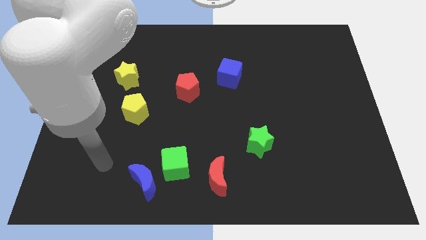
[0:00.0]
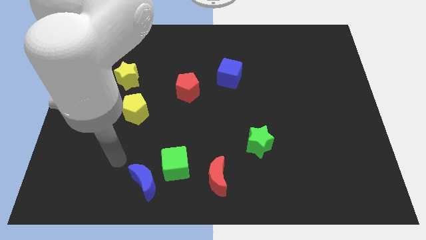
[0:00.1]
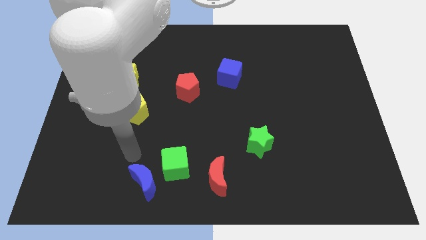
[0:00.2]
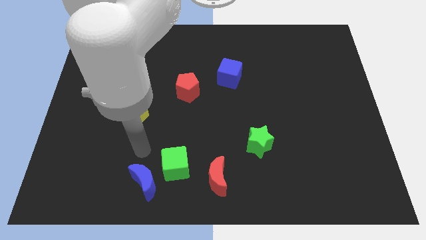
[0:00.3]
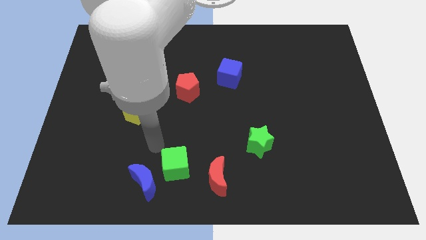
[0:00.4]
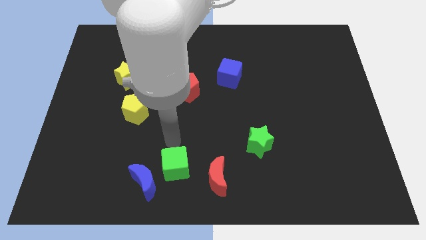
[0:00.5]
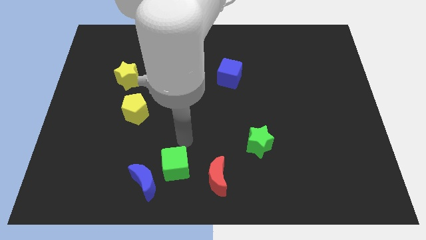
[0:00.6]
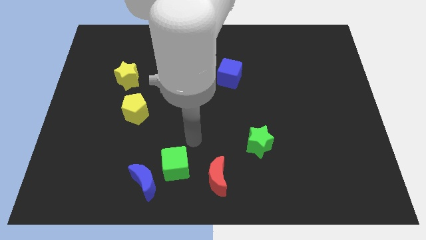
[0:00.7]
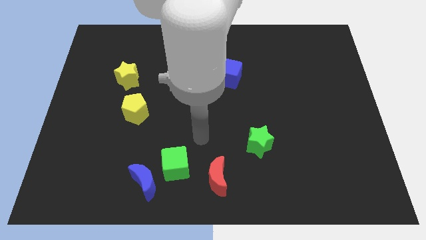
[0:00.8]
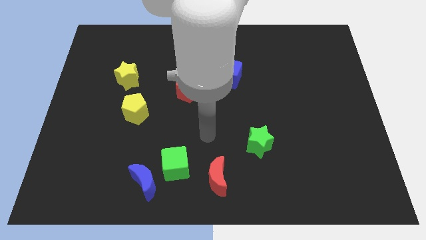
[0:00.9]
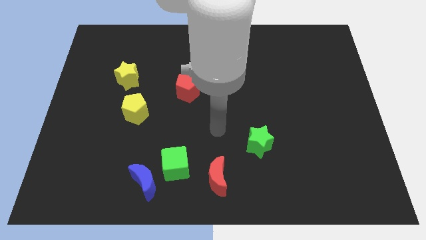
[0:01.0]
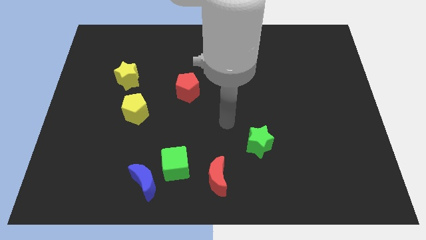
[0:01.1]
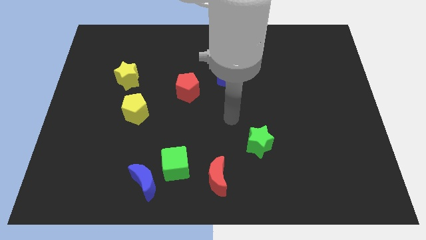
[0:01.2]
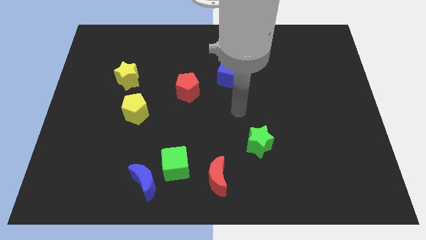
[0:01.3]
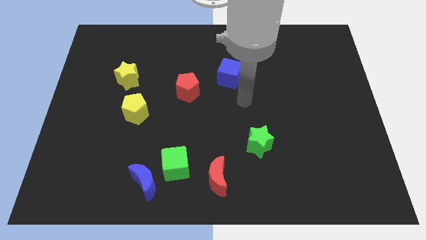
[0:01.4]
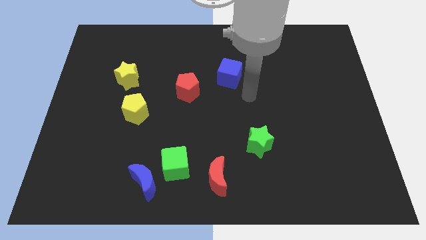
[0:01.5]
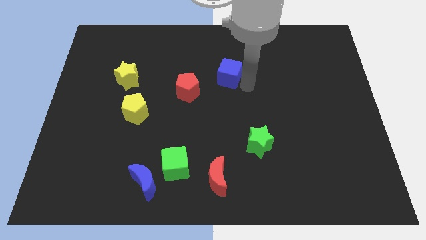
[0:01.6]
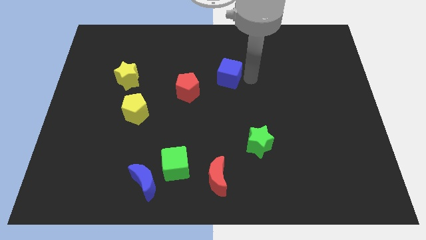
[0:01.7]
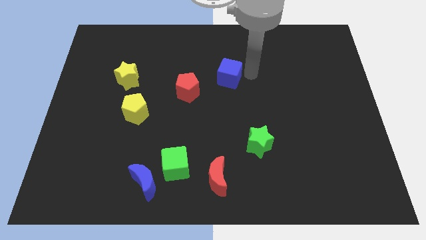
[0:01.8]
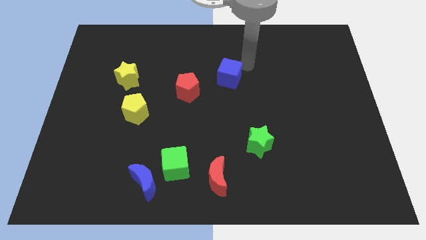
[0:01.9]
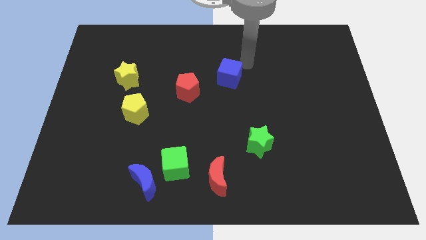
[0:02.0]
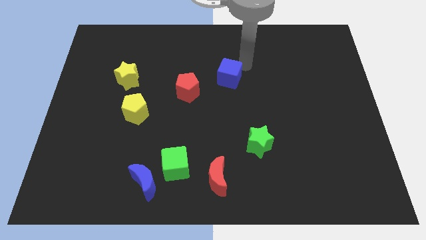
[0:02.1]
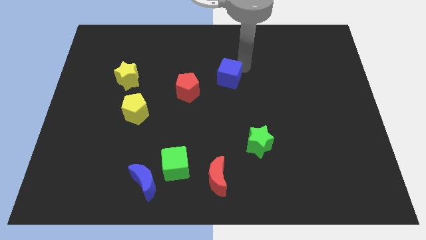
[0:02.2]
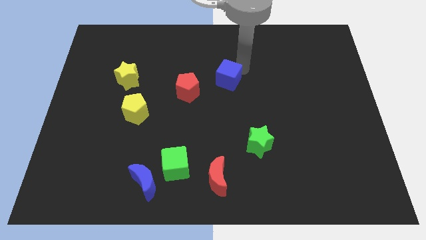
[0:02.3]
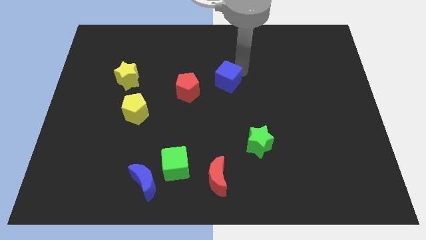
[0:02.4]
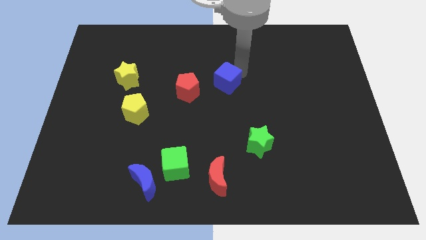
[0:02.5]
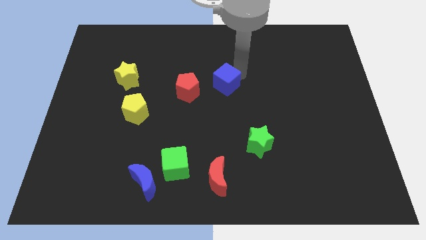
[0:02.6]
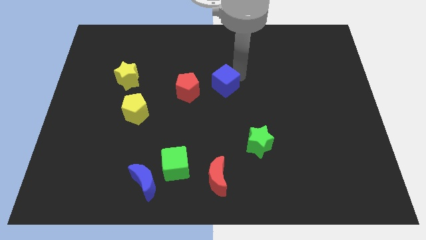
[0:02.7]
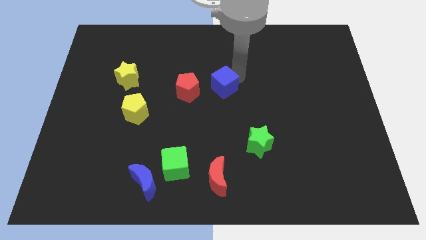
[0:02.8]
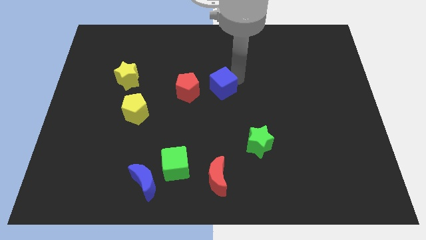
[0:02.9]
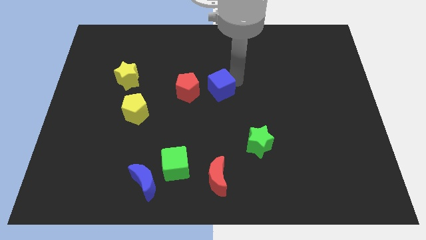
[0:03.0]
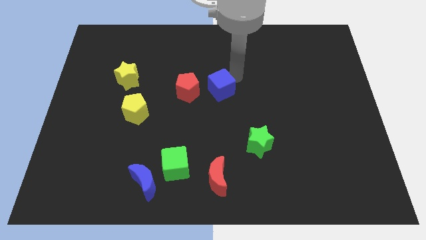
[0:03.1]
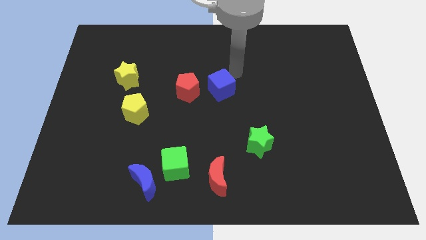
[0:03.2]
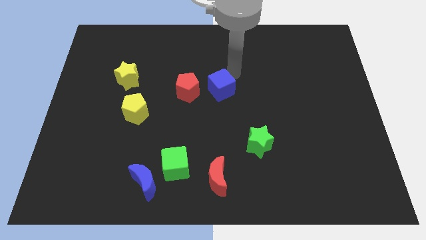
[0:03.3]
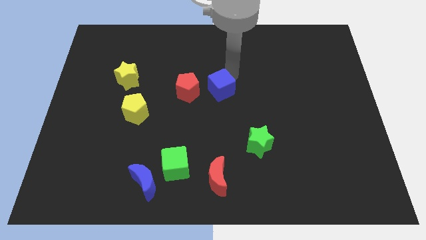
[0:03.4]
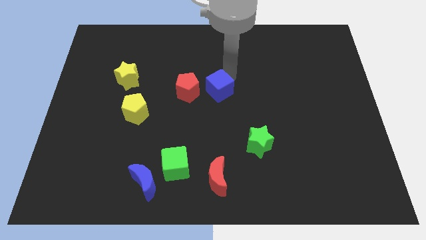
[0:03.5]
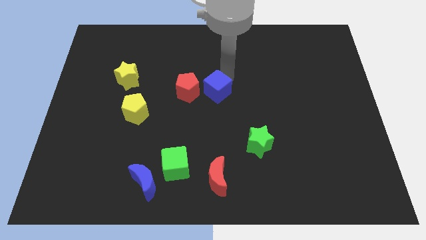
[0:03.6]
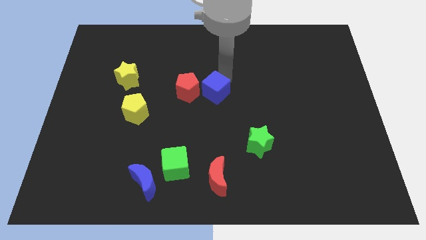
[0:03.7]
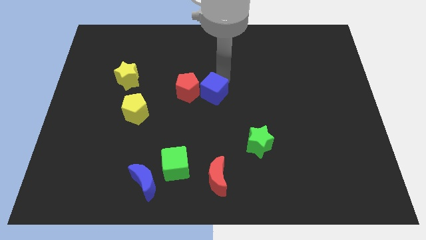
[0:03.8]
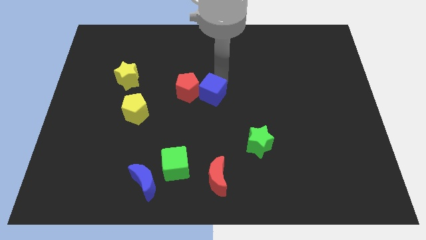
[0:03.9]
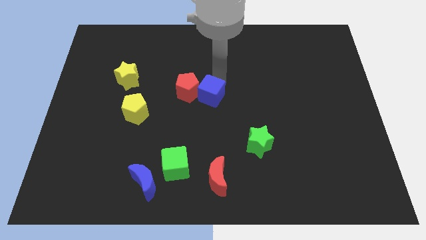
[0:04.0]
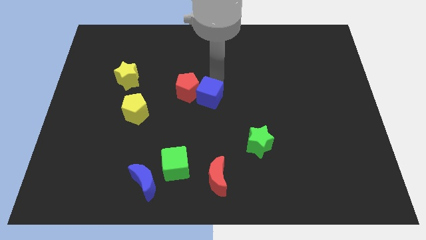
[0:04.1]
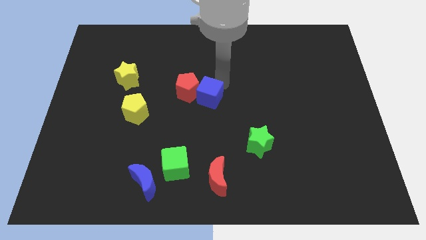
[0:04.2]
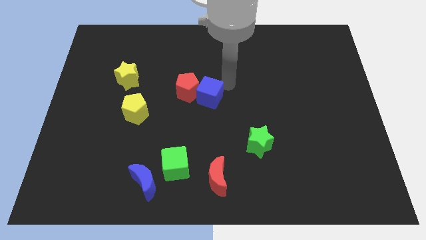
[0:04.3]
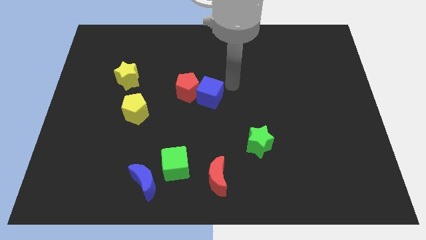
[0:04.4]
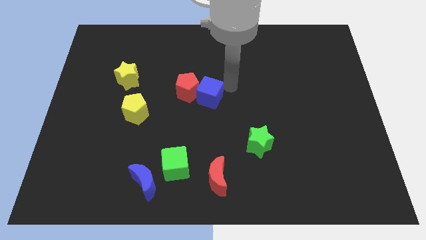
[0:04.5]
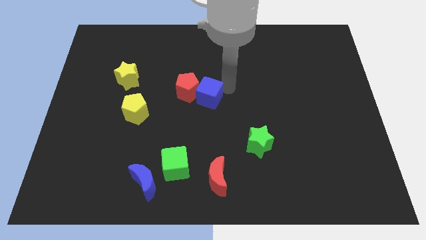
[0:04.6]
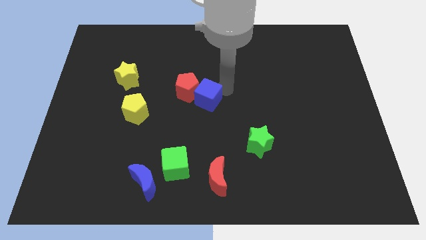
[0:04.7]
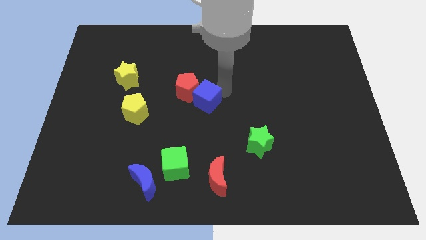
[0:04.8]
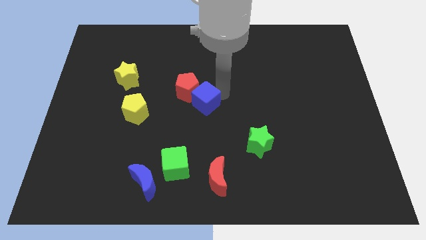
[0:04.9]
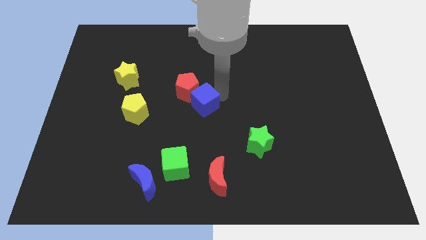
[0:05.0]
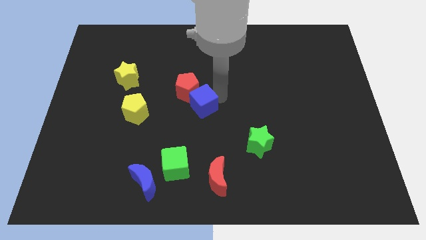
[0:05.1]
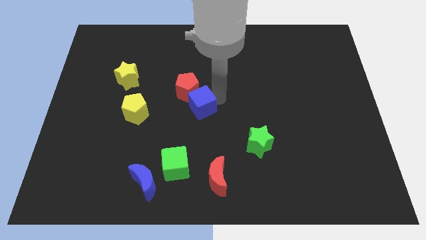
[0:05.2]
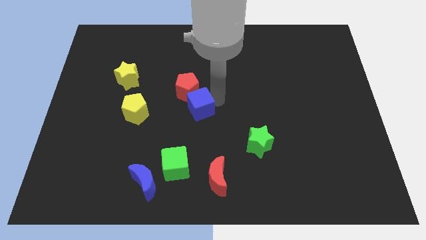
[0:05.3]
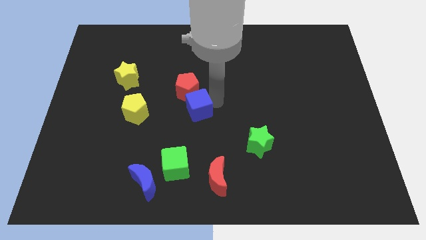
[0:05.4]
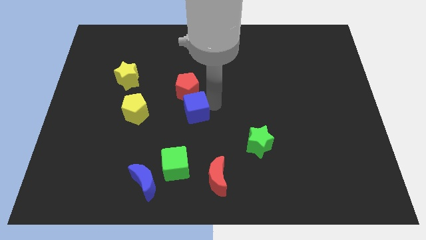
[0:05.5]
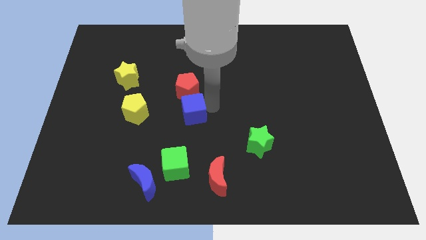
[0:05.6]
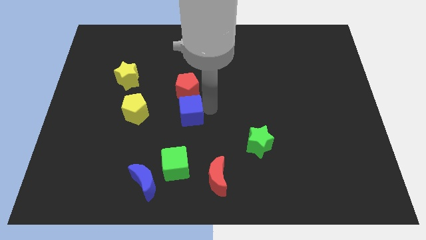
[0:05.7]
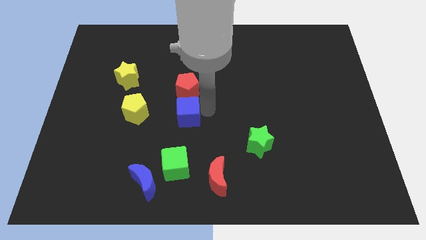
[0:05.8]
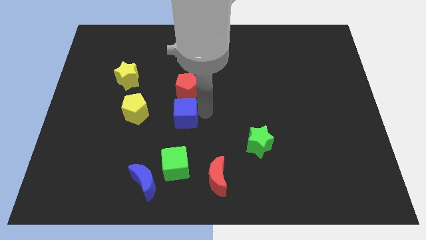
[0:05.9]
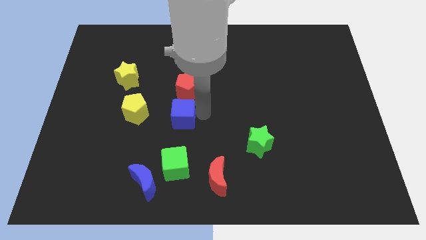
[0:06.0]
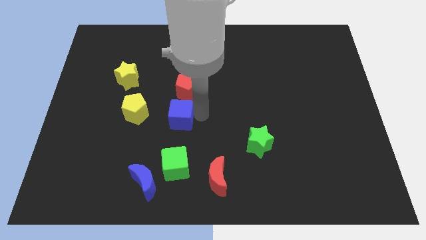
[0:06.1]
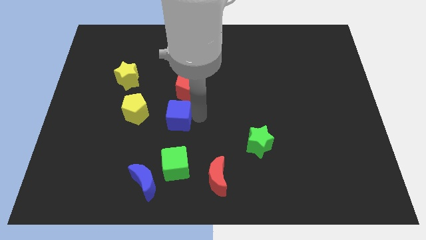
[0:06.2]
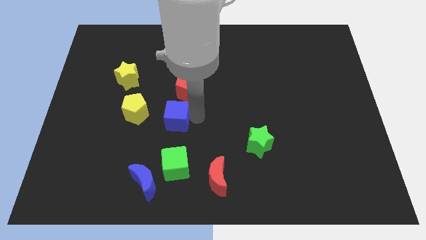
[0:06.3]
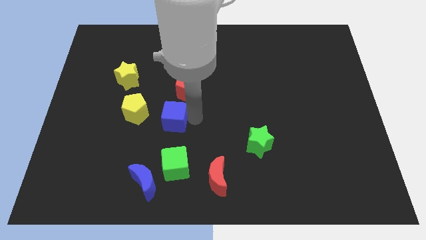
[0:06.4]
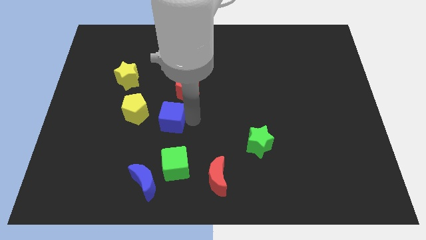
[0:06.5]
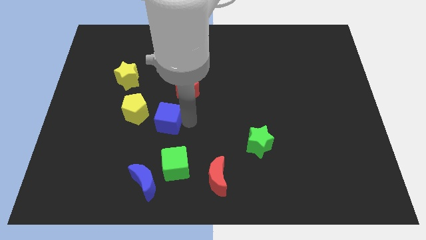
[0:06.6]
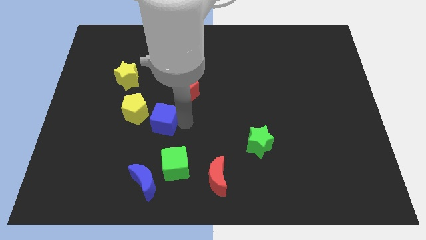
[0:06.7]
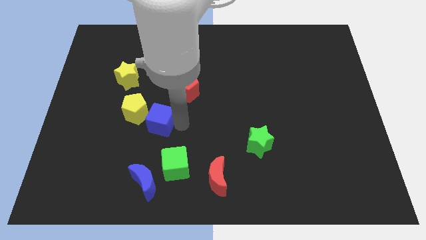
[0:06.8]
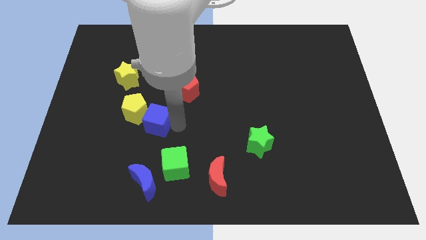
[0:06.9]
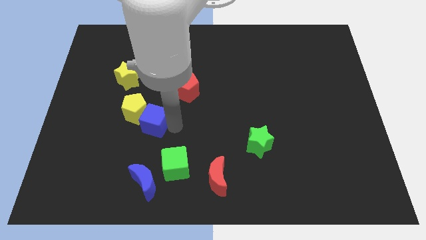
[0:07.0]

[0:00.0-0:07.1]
slide the blue cube towards the yellow pentagon

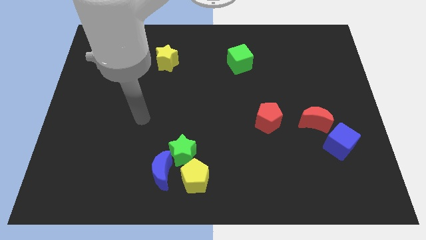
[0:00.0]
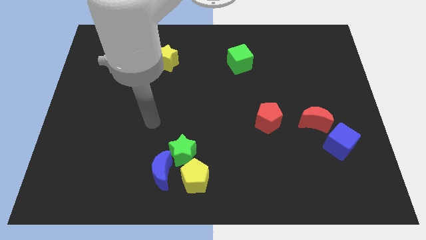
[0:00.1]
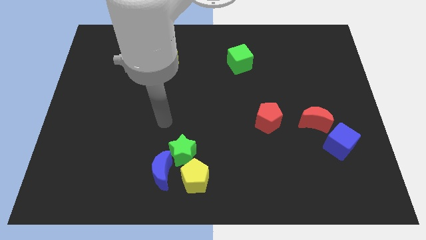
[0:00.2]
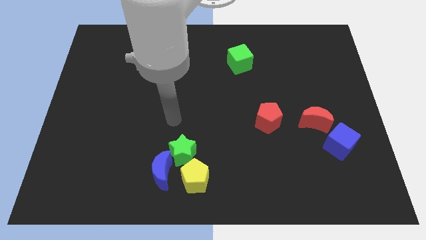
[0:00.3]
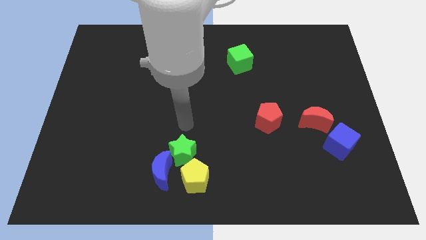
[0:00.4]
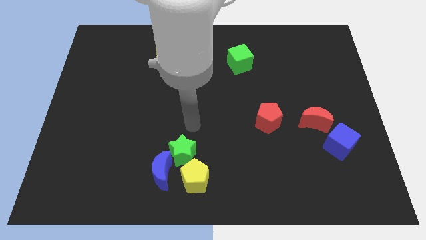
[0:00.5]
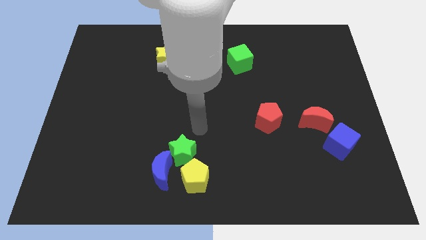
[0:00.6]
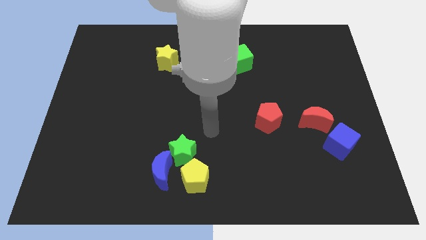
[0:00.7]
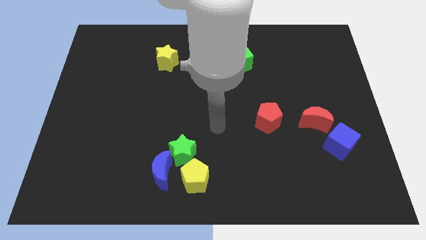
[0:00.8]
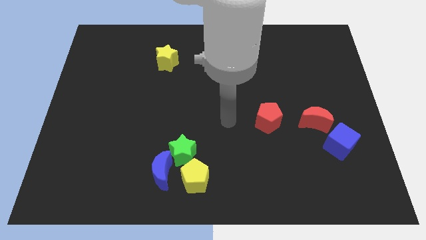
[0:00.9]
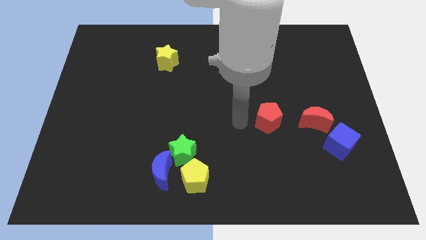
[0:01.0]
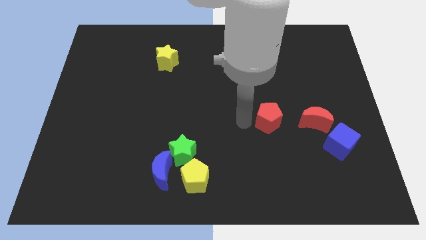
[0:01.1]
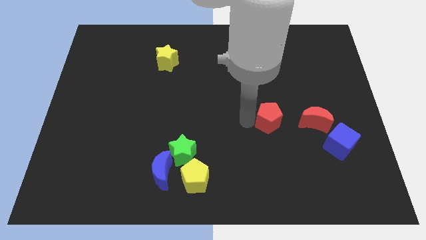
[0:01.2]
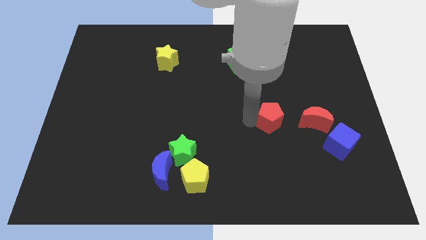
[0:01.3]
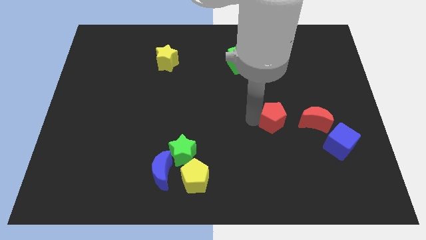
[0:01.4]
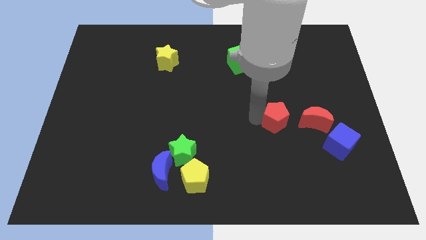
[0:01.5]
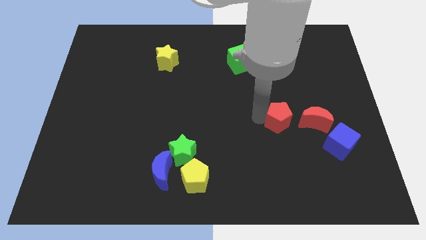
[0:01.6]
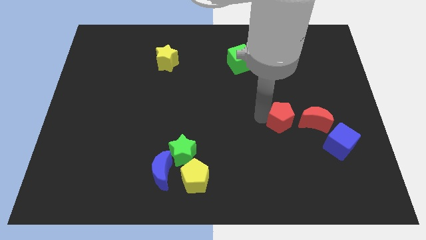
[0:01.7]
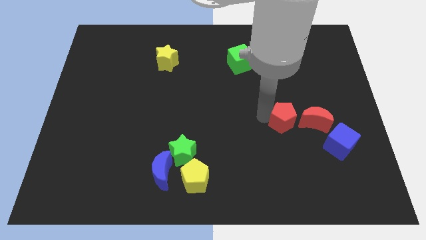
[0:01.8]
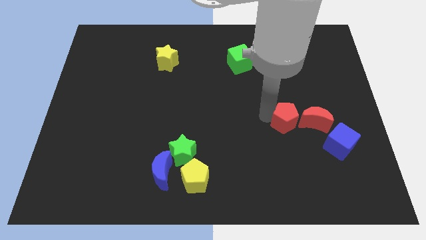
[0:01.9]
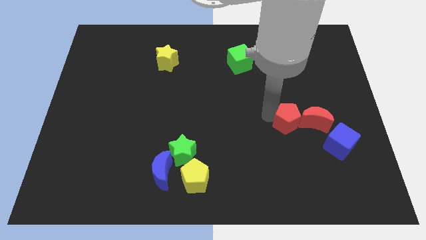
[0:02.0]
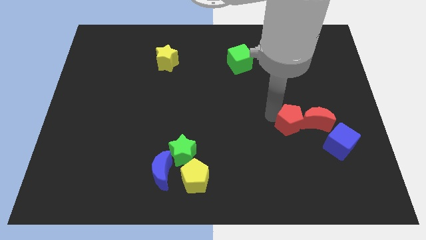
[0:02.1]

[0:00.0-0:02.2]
put the red pentagon towards the red moon
